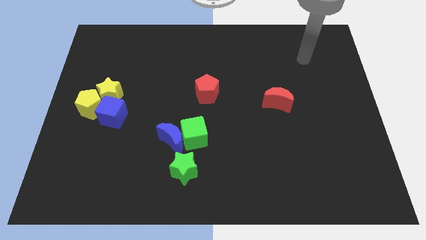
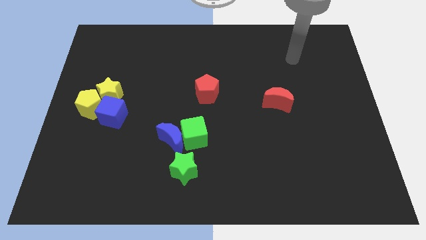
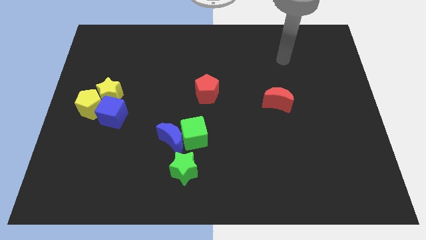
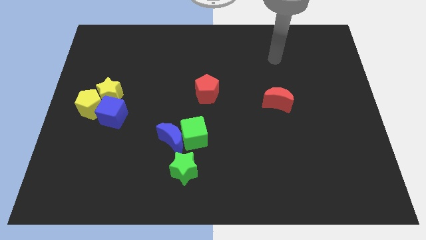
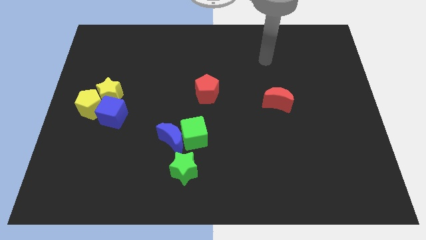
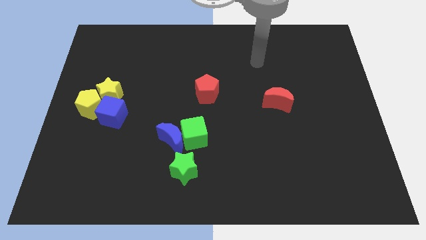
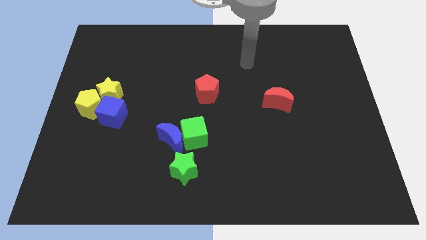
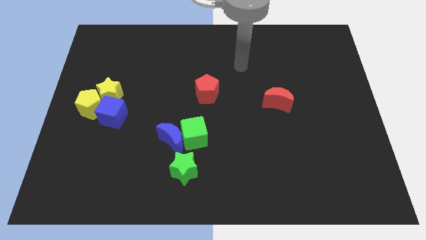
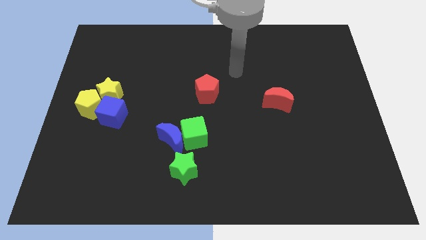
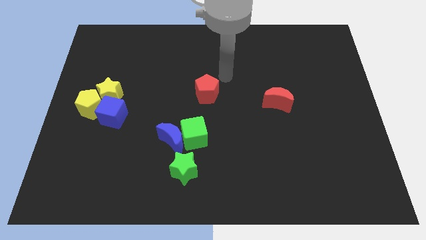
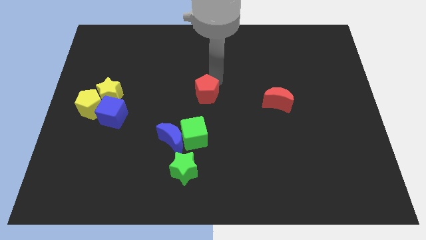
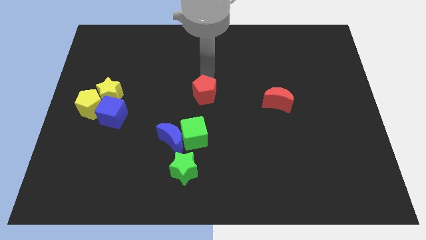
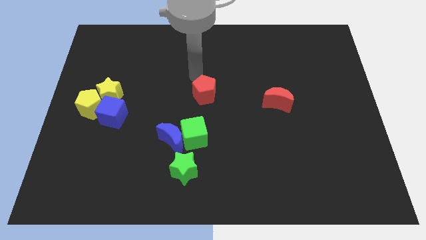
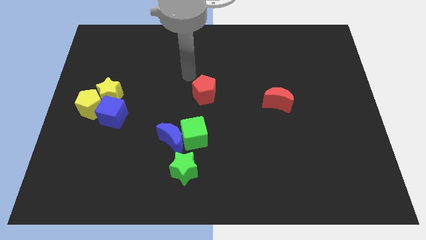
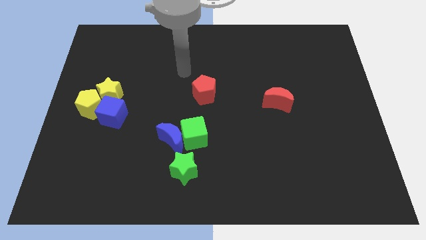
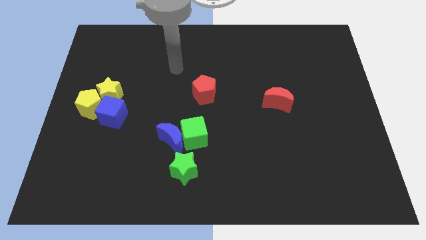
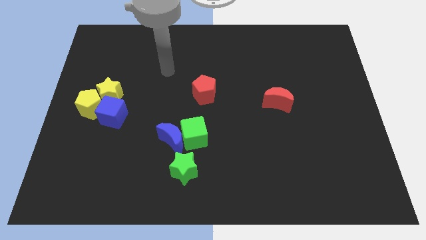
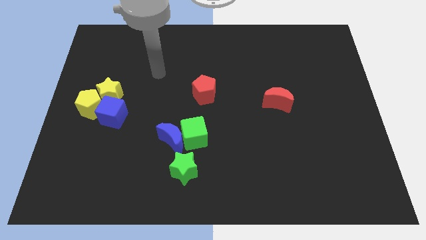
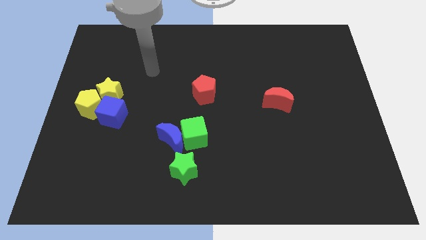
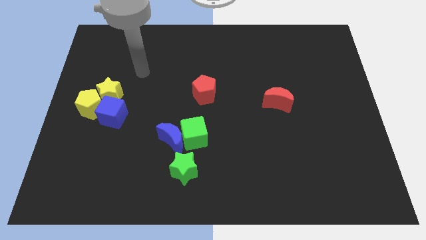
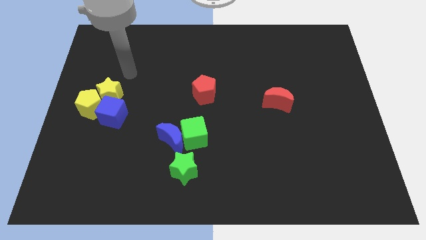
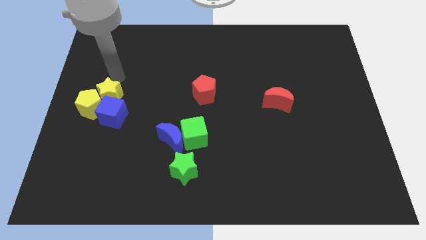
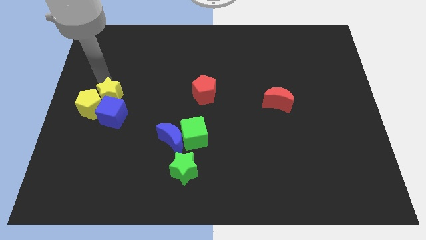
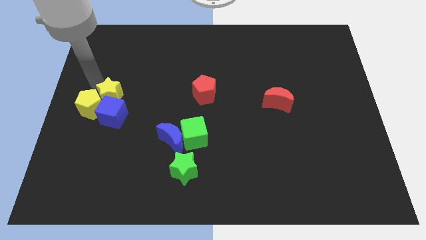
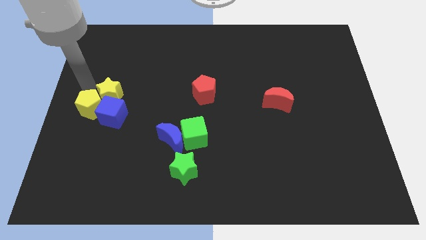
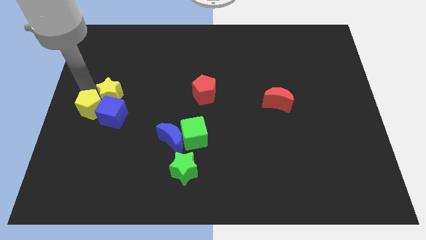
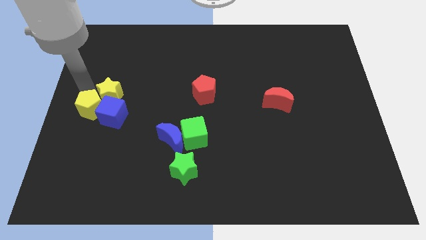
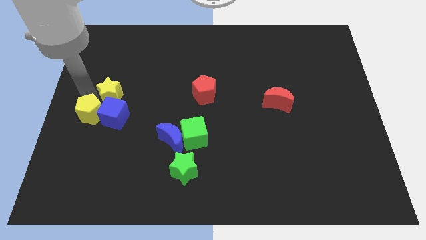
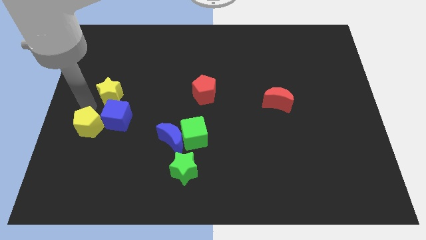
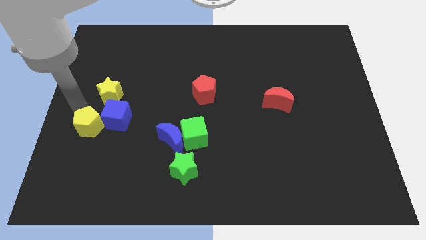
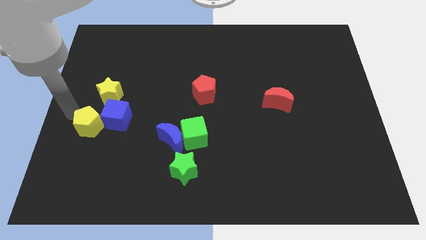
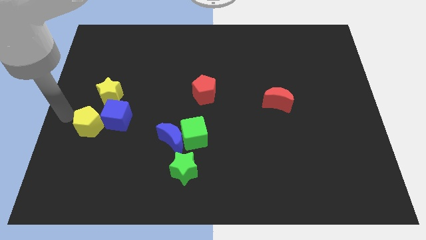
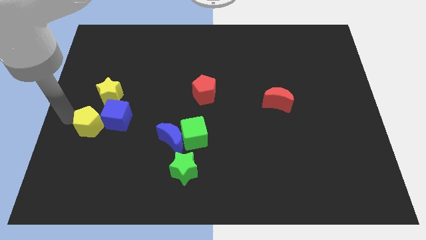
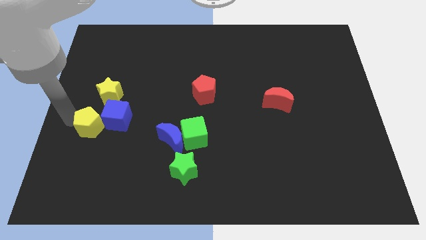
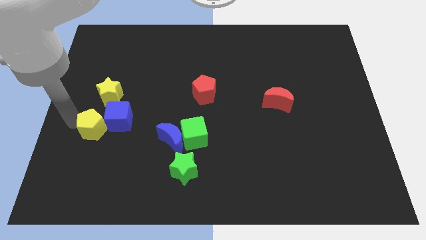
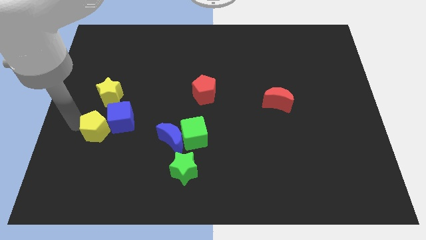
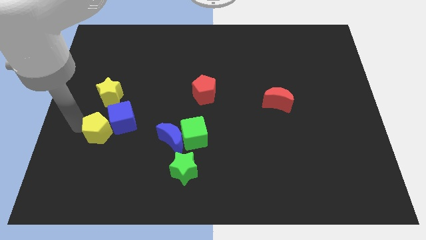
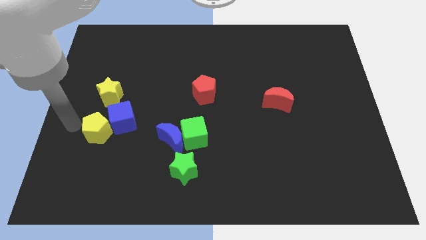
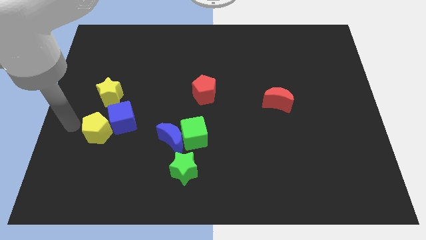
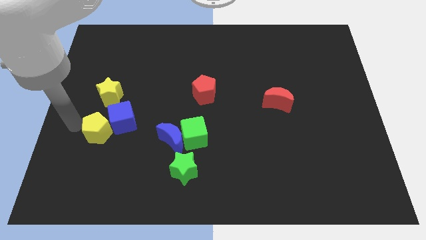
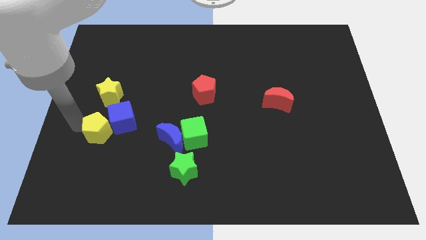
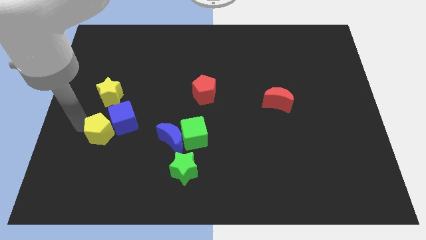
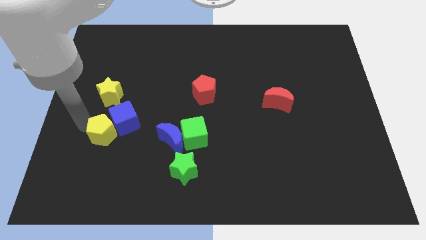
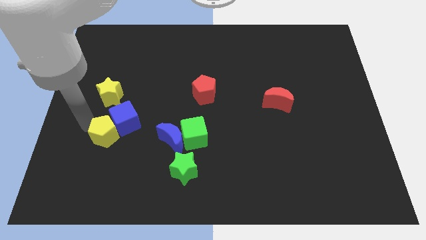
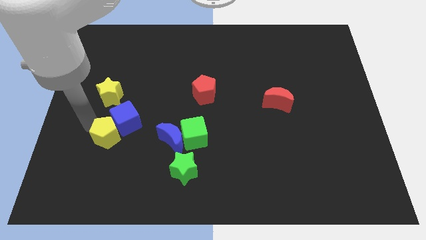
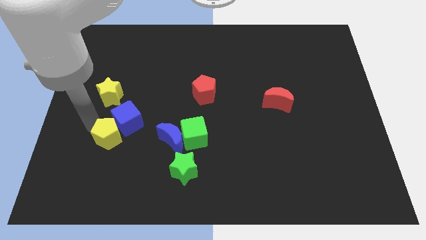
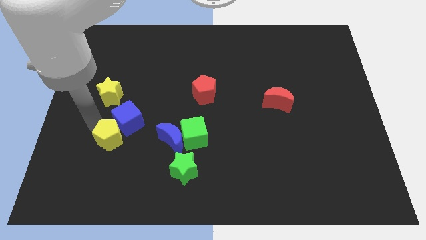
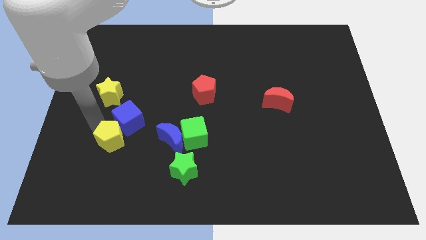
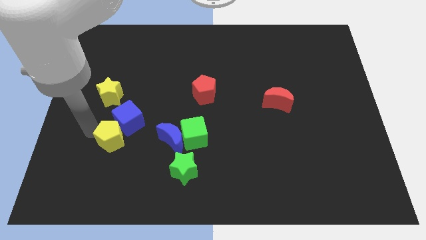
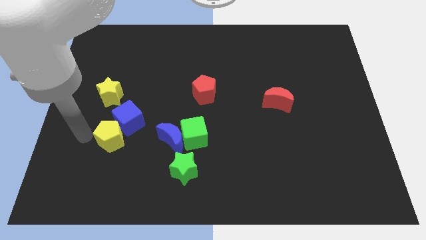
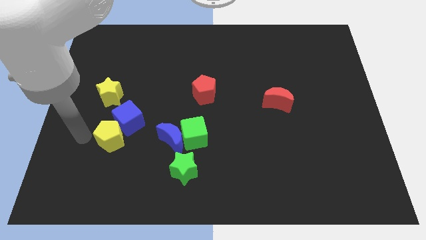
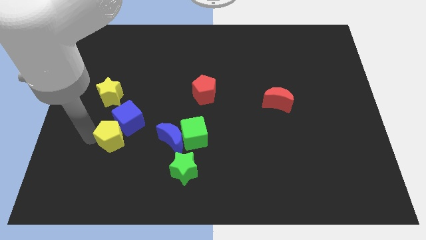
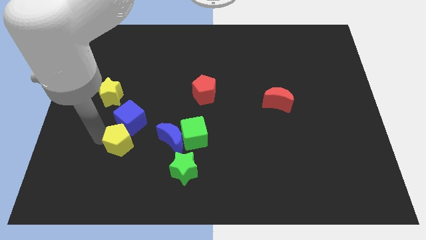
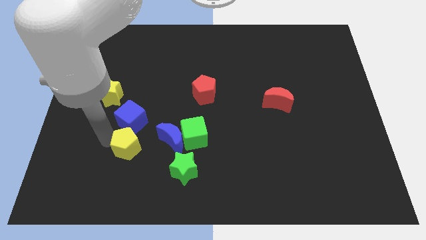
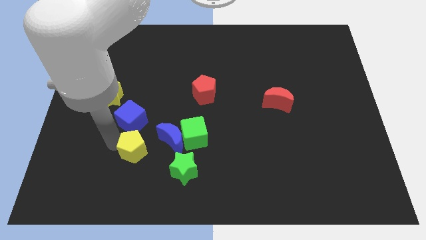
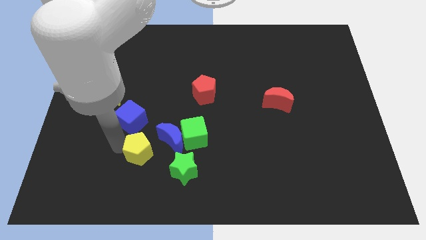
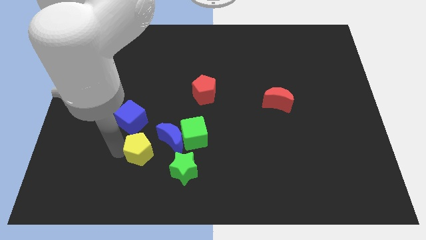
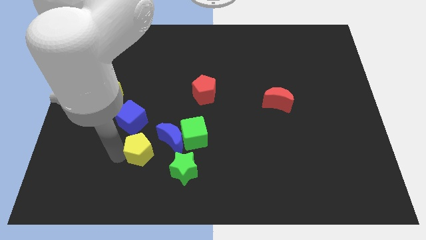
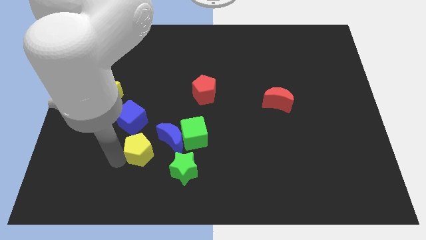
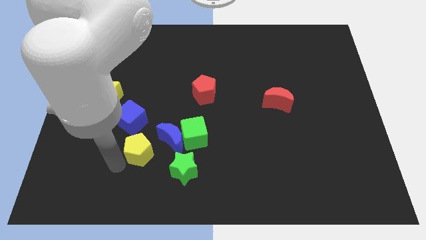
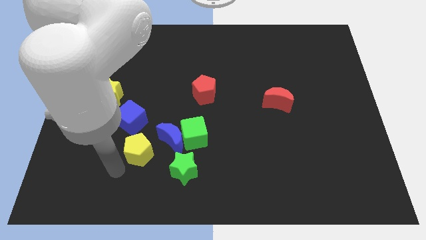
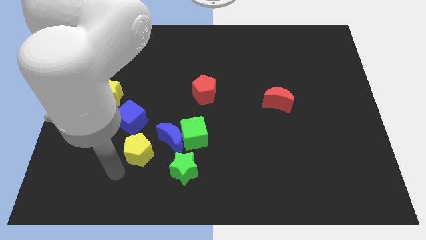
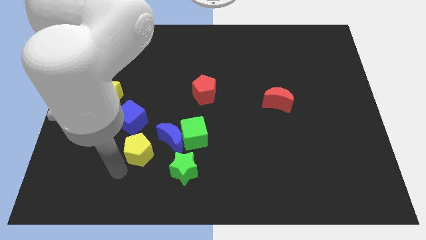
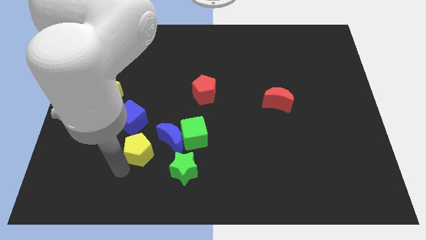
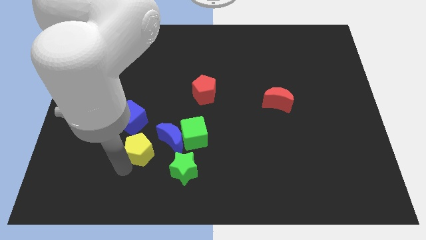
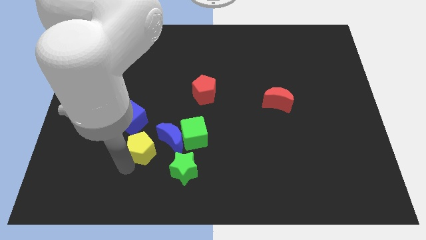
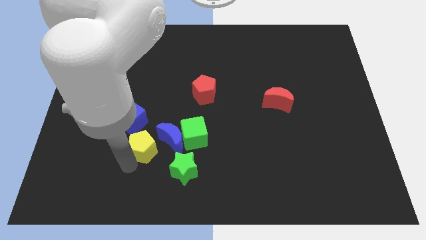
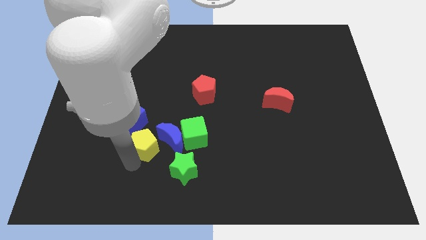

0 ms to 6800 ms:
push the yellow pentagon next to the blue moon

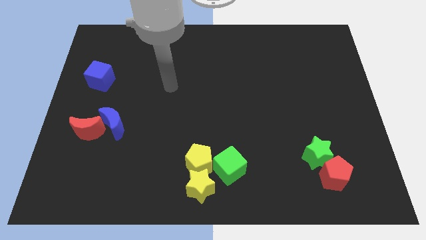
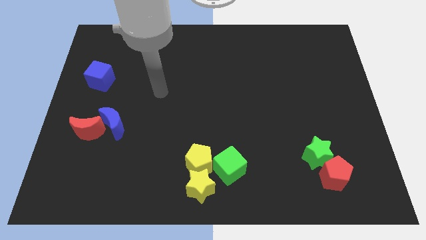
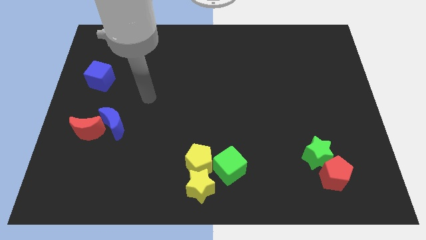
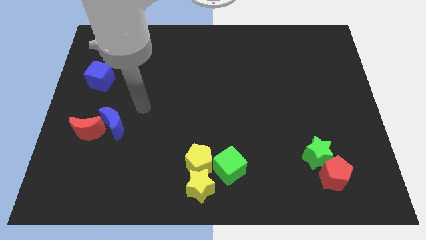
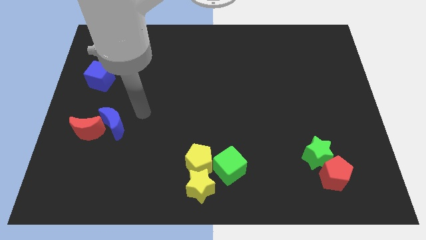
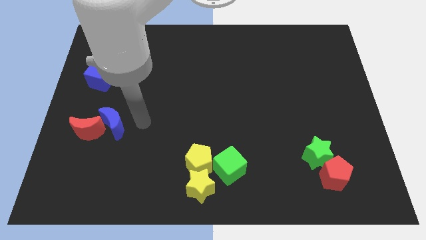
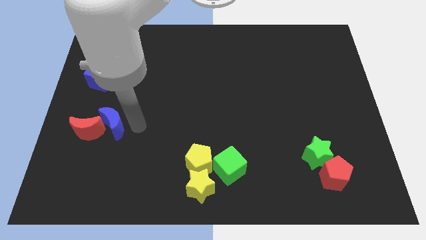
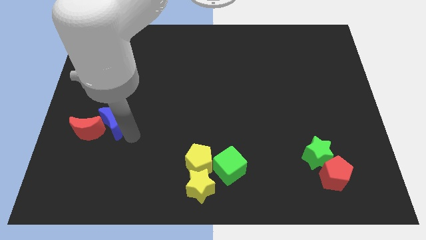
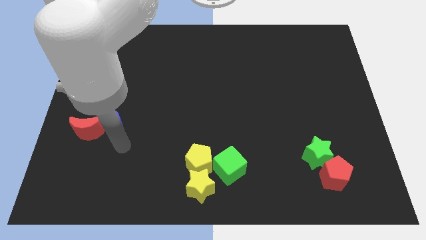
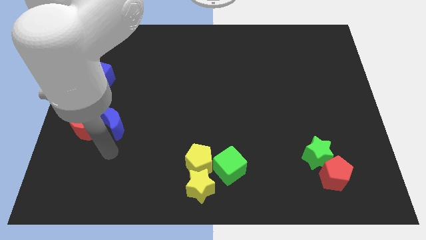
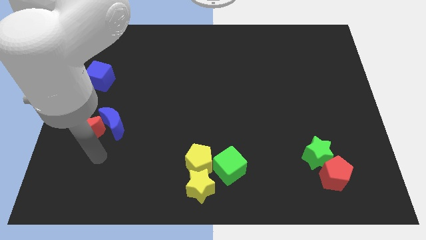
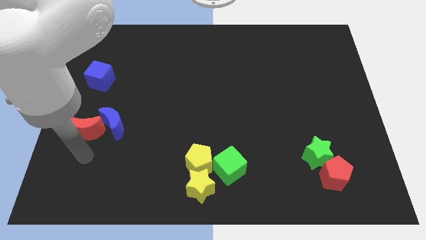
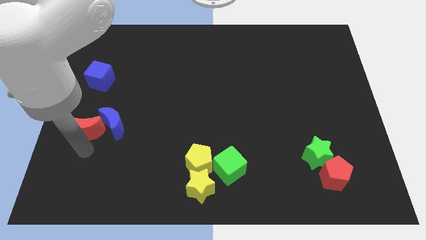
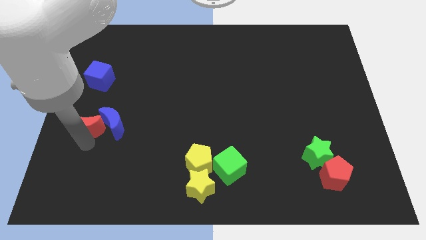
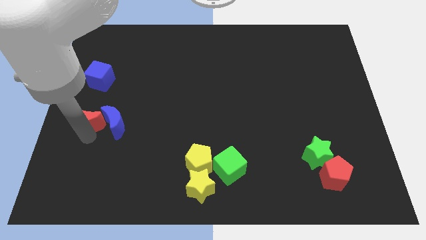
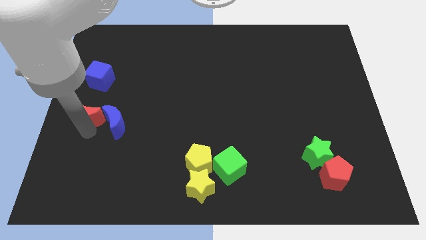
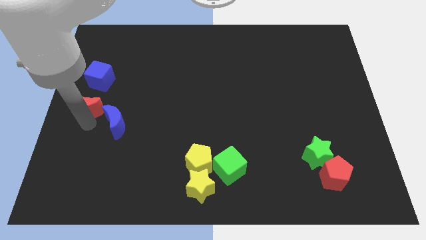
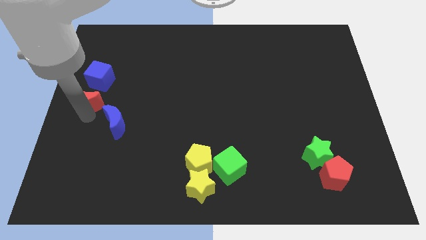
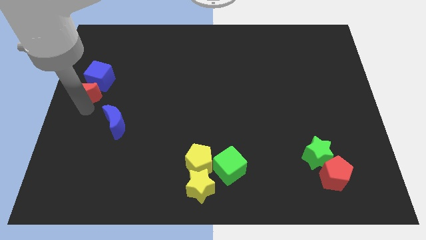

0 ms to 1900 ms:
push the red moon close to the blue cube
